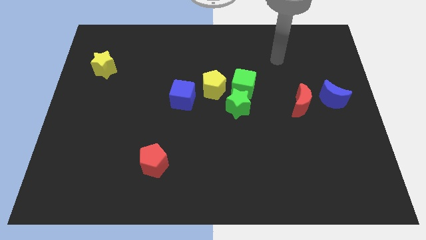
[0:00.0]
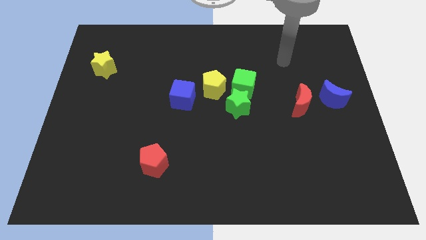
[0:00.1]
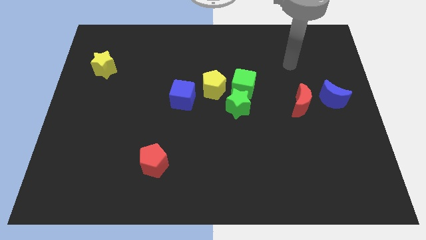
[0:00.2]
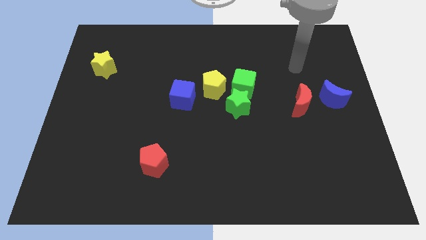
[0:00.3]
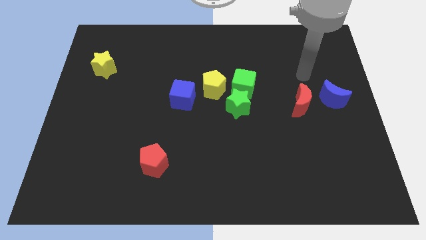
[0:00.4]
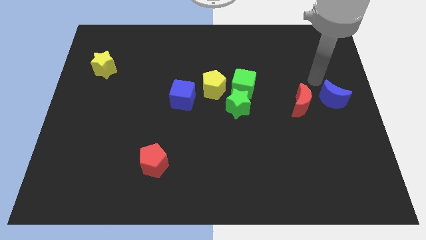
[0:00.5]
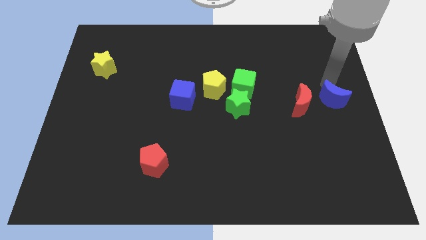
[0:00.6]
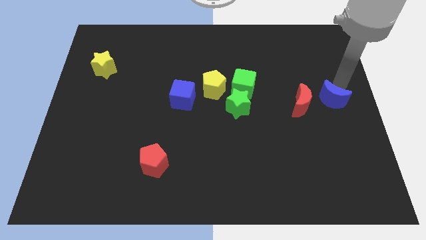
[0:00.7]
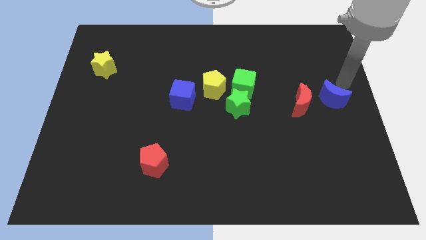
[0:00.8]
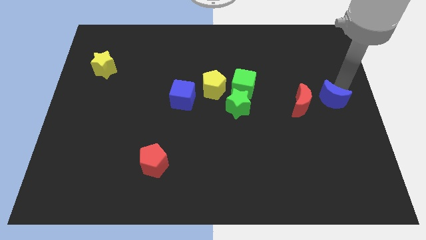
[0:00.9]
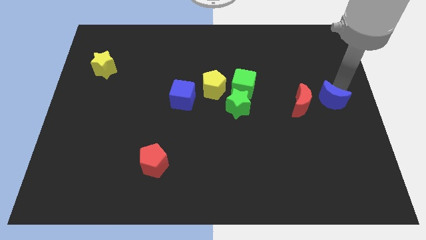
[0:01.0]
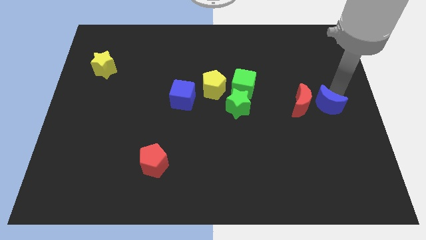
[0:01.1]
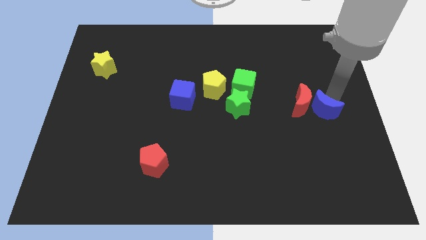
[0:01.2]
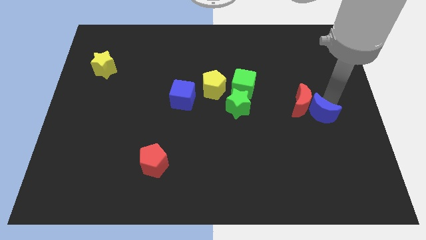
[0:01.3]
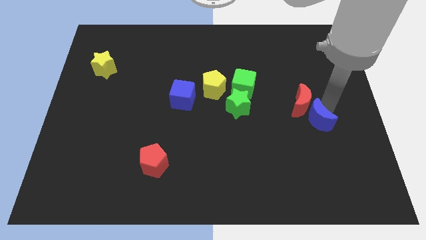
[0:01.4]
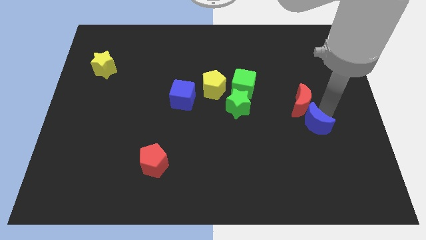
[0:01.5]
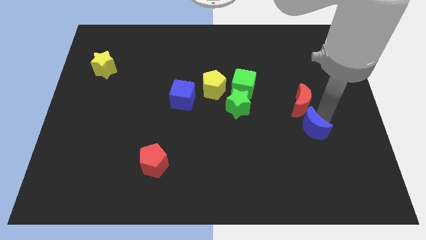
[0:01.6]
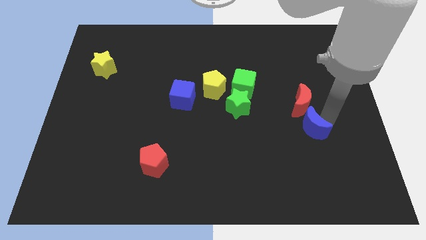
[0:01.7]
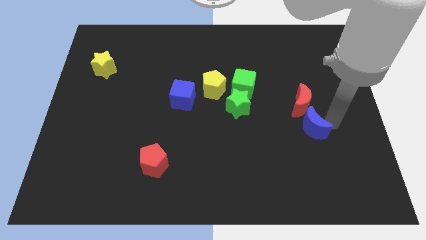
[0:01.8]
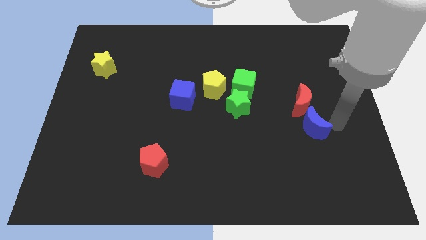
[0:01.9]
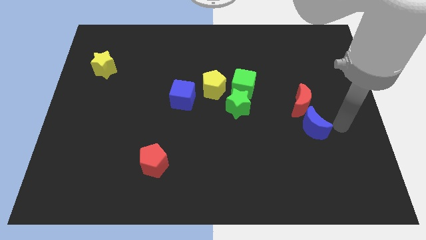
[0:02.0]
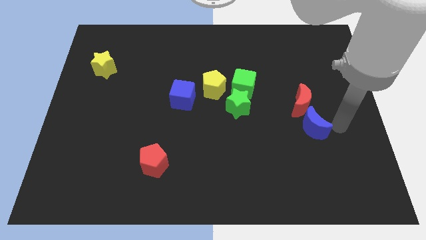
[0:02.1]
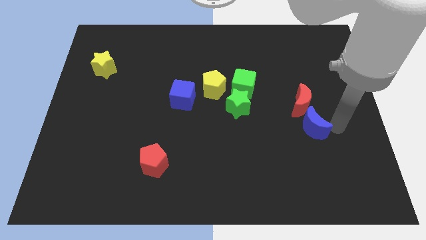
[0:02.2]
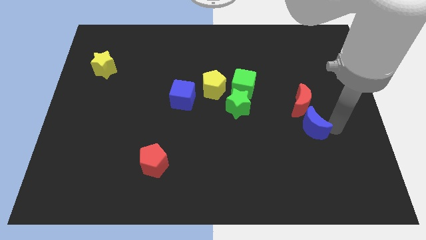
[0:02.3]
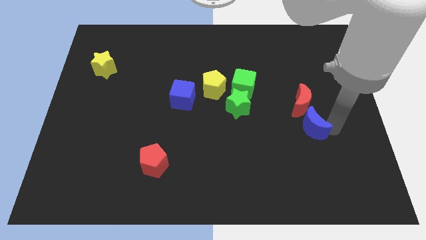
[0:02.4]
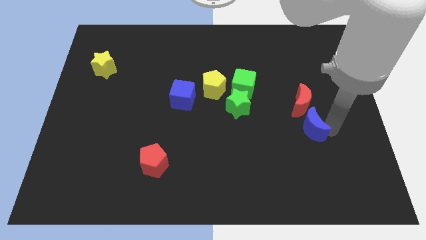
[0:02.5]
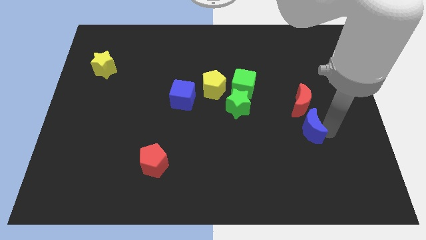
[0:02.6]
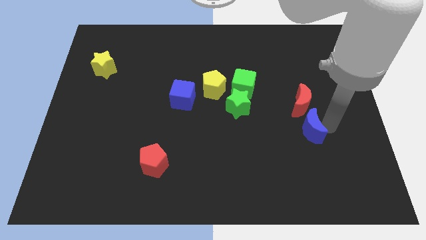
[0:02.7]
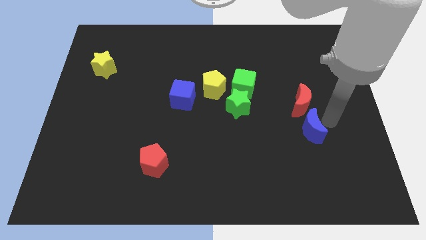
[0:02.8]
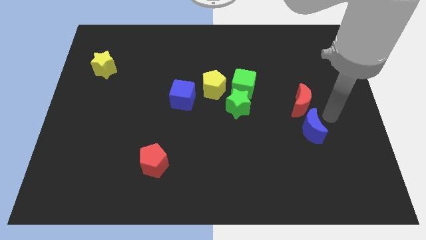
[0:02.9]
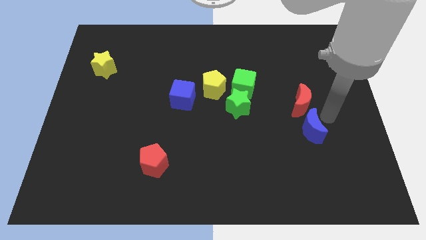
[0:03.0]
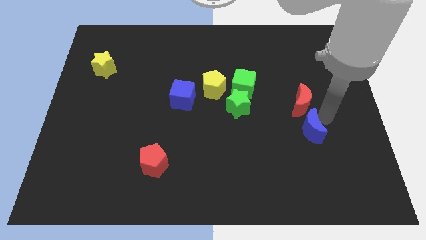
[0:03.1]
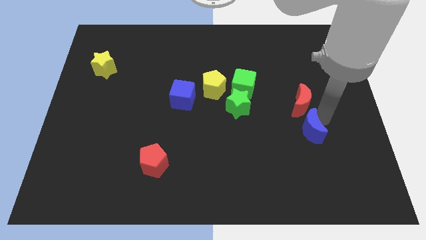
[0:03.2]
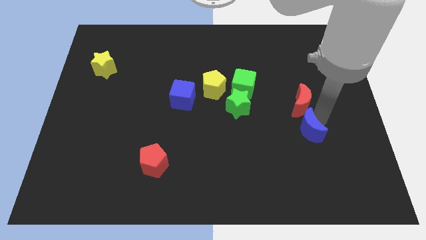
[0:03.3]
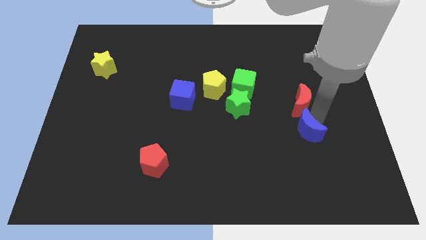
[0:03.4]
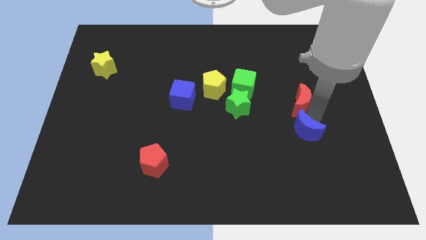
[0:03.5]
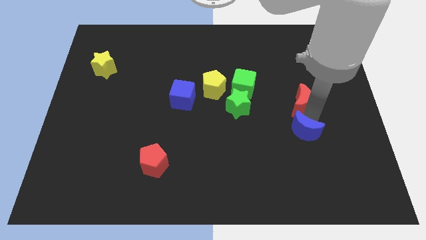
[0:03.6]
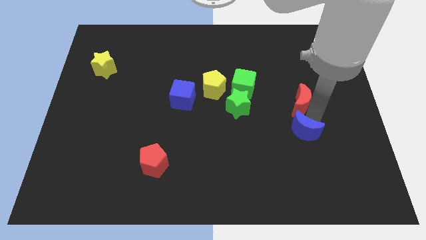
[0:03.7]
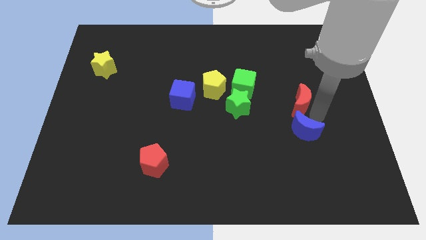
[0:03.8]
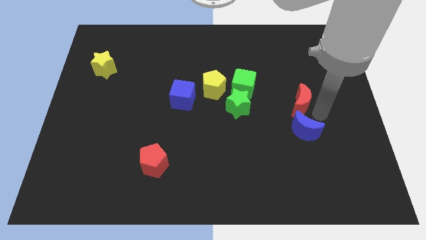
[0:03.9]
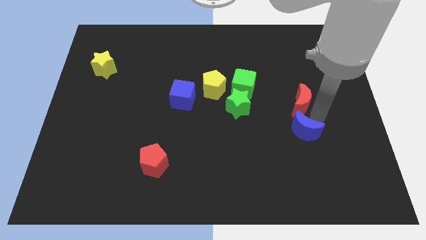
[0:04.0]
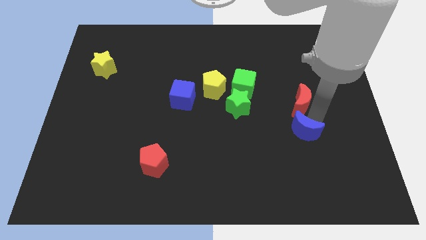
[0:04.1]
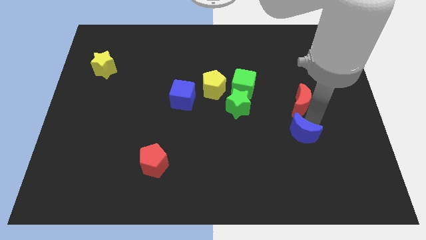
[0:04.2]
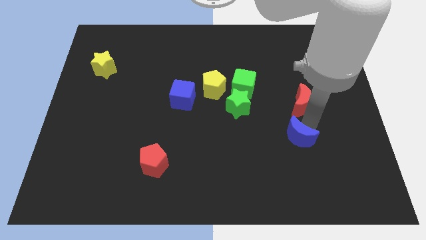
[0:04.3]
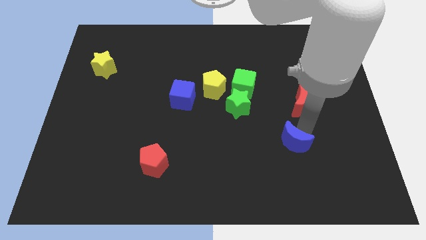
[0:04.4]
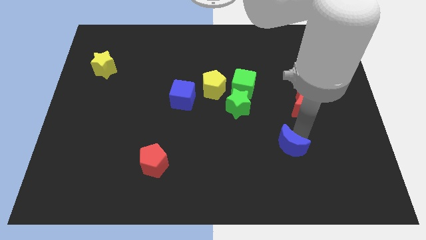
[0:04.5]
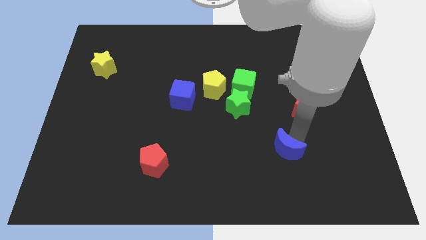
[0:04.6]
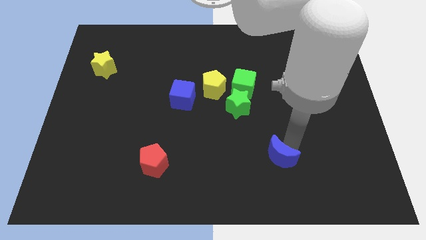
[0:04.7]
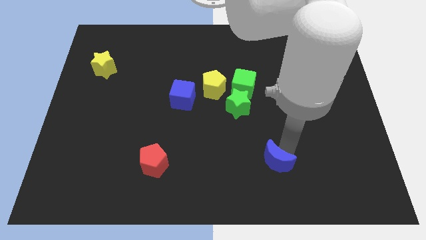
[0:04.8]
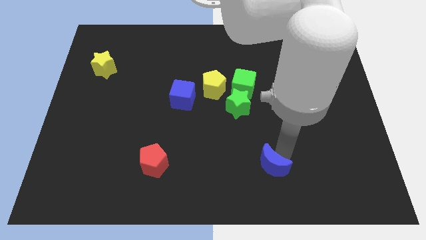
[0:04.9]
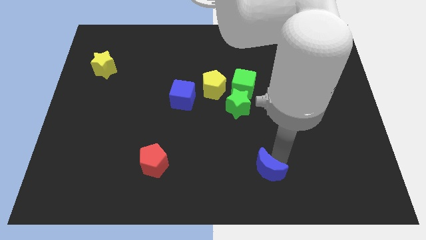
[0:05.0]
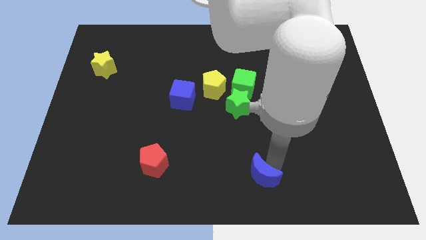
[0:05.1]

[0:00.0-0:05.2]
move the blue moon to the bottom side

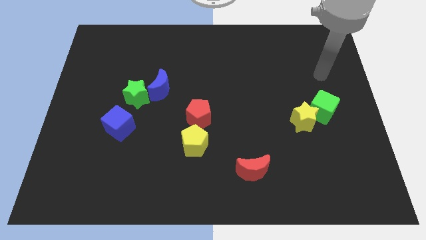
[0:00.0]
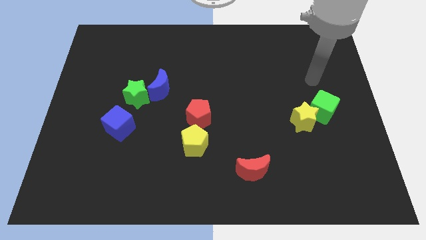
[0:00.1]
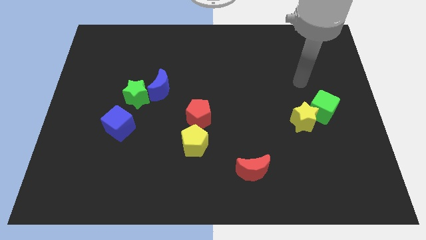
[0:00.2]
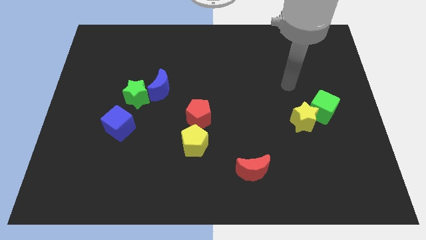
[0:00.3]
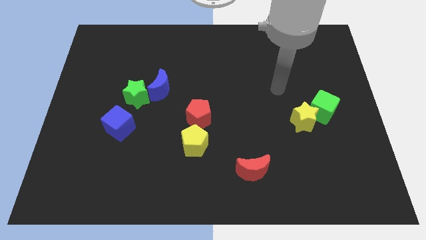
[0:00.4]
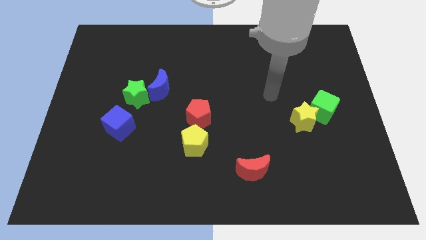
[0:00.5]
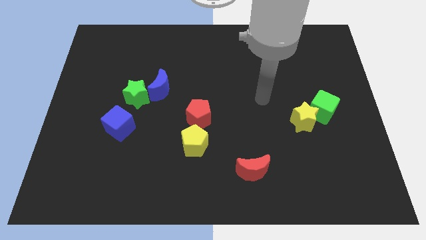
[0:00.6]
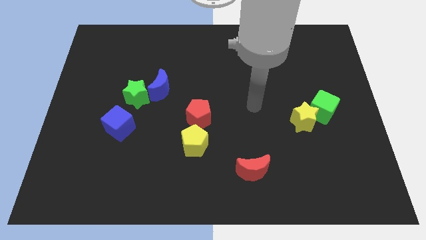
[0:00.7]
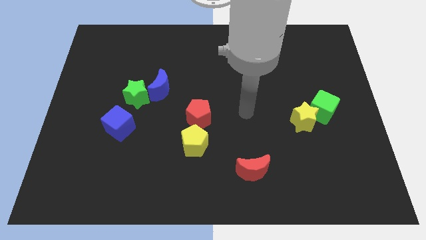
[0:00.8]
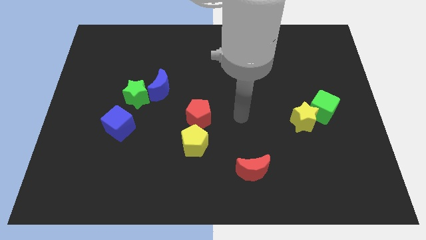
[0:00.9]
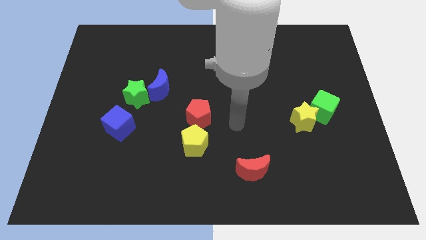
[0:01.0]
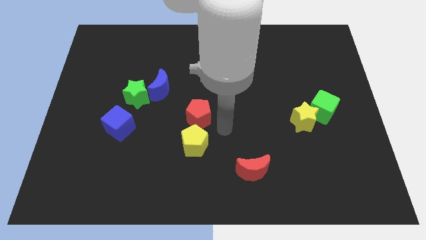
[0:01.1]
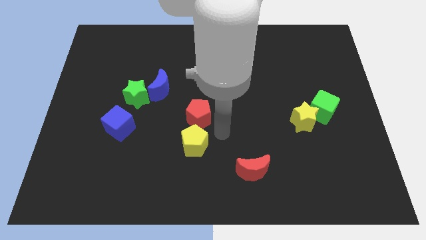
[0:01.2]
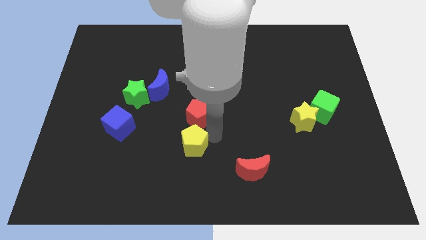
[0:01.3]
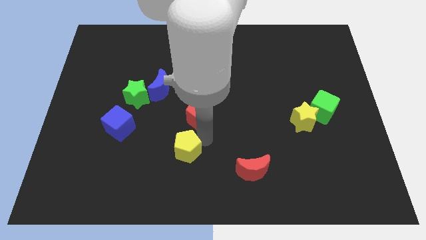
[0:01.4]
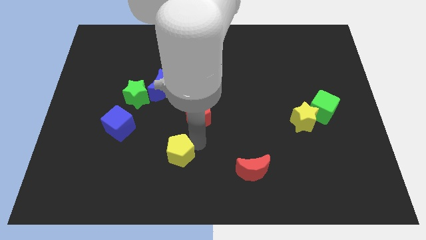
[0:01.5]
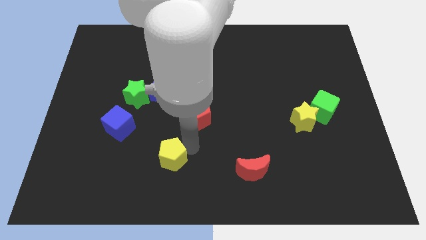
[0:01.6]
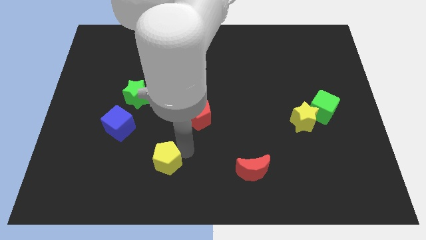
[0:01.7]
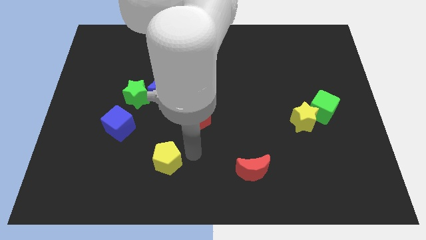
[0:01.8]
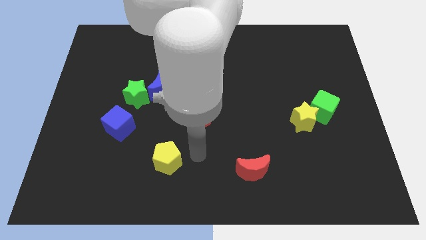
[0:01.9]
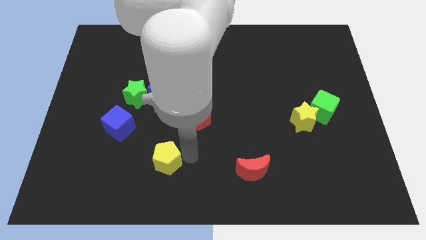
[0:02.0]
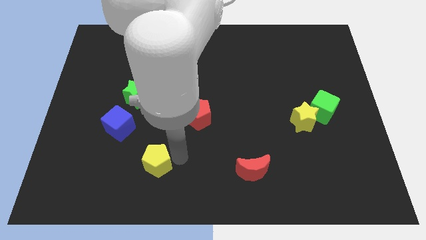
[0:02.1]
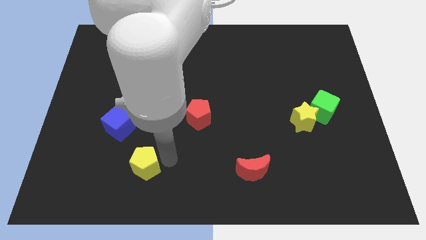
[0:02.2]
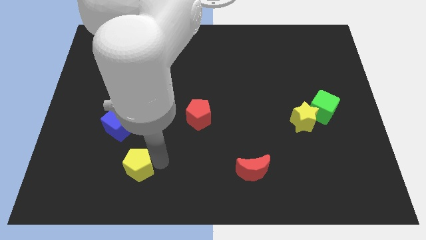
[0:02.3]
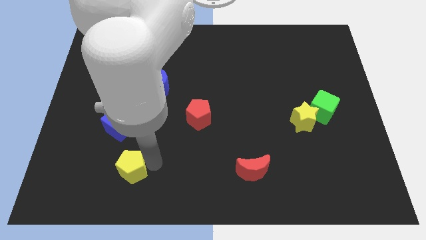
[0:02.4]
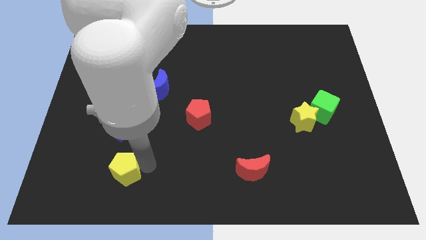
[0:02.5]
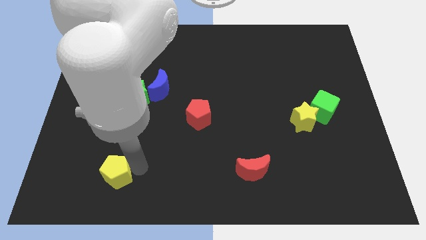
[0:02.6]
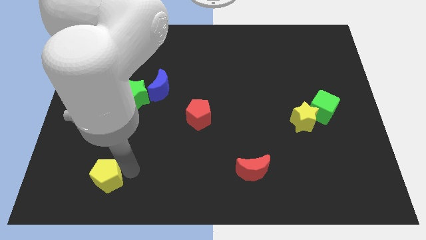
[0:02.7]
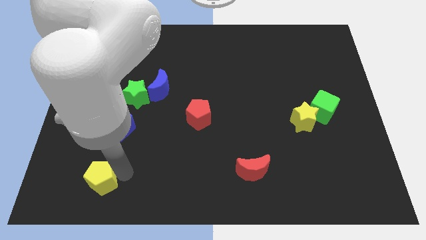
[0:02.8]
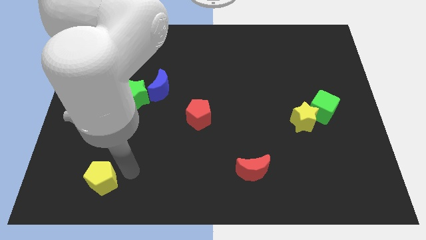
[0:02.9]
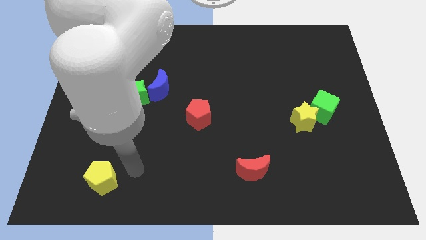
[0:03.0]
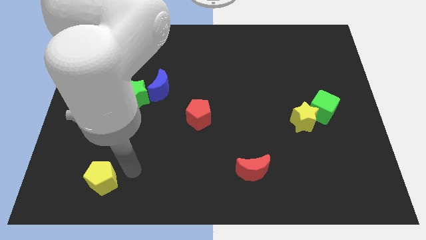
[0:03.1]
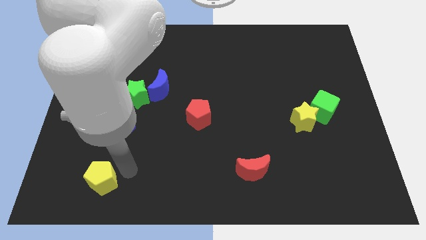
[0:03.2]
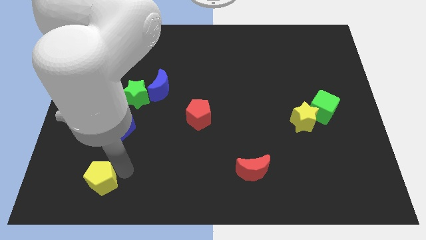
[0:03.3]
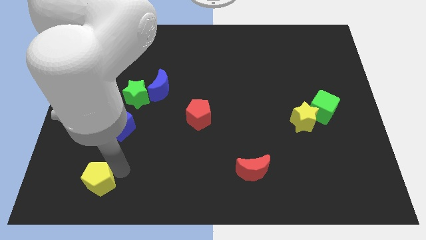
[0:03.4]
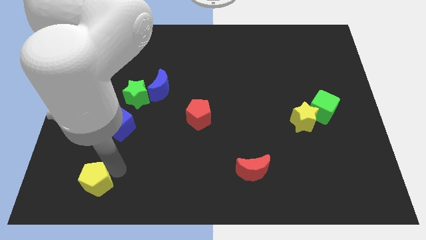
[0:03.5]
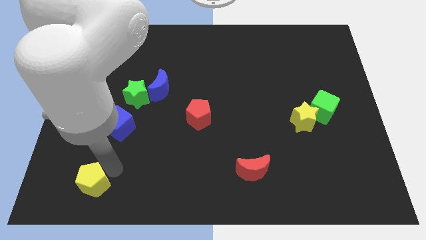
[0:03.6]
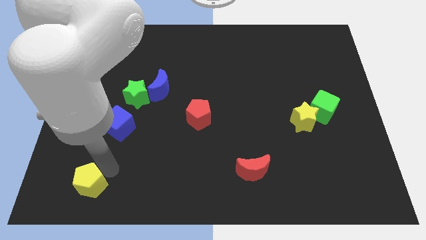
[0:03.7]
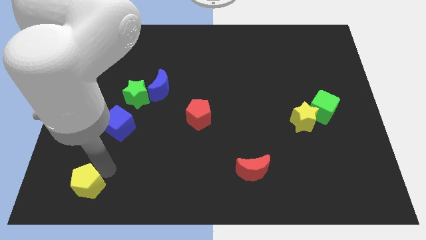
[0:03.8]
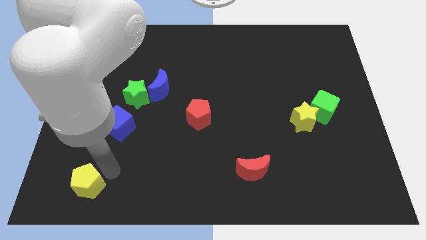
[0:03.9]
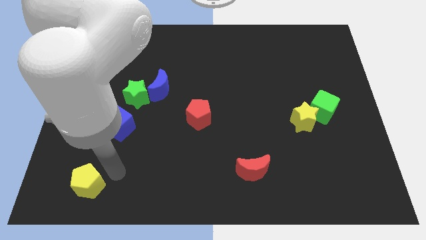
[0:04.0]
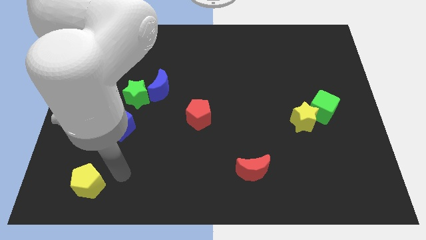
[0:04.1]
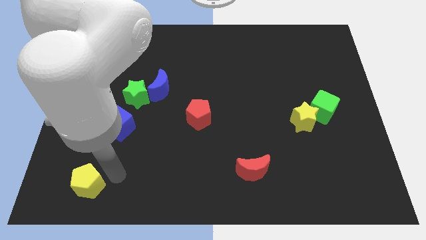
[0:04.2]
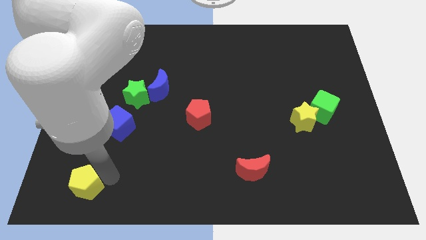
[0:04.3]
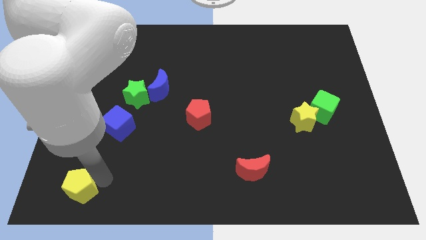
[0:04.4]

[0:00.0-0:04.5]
put the yellow pentagon to the lower left corner
